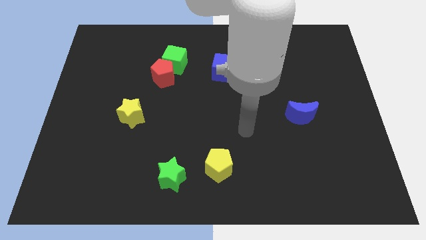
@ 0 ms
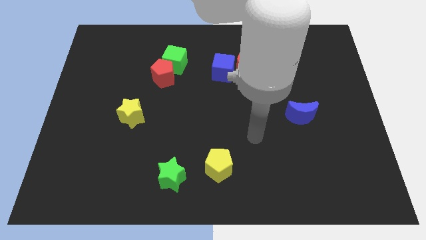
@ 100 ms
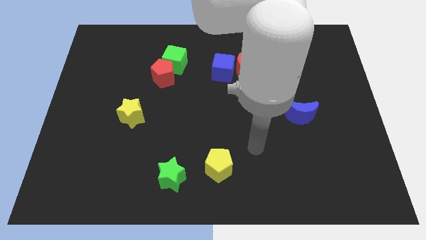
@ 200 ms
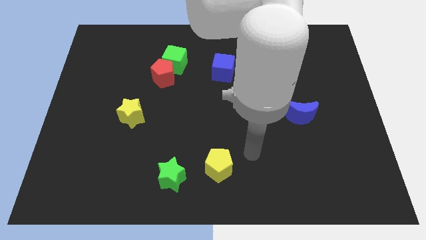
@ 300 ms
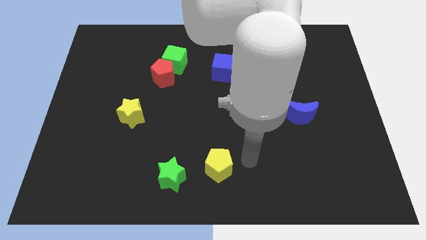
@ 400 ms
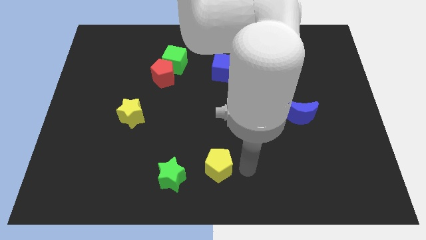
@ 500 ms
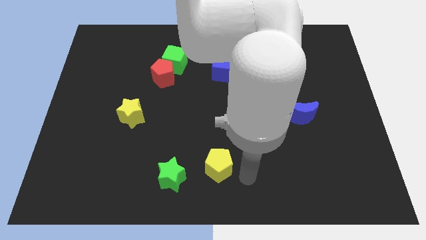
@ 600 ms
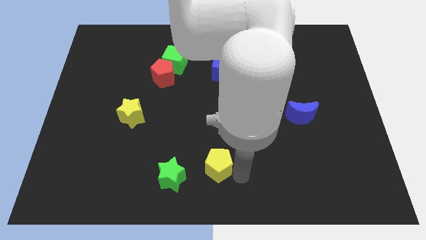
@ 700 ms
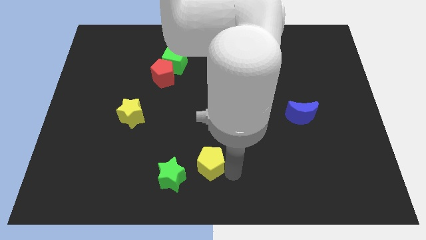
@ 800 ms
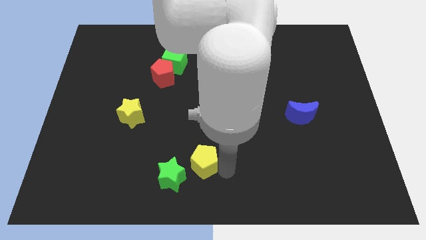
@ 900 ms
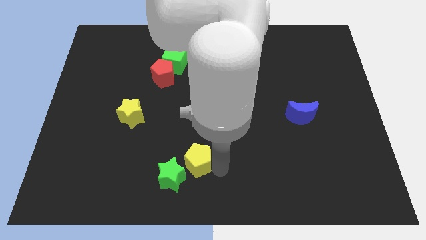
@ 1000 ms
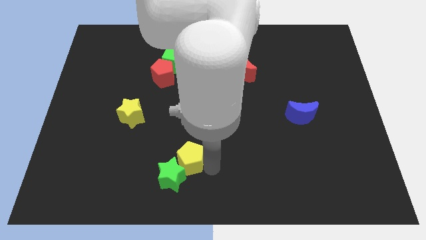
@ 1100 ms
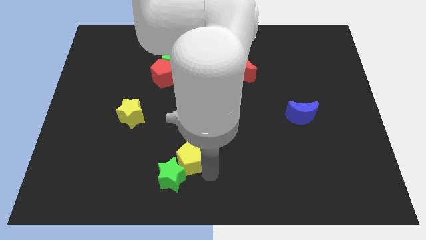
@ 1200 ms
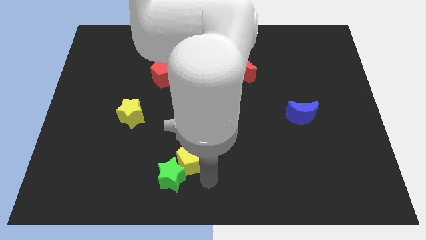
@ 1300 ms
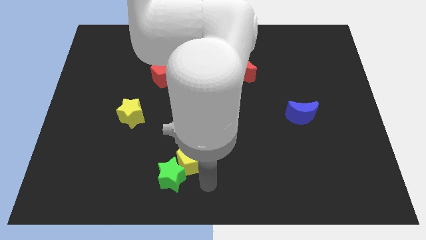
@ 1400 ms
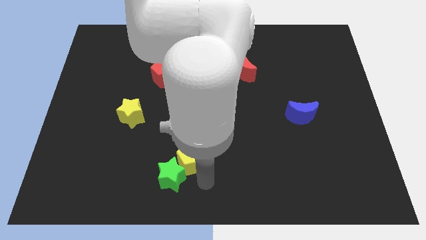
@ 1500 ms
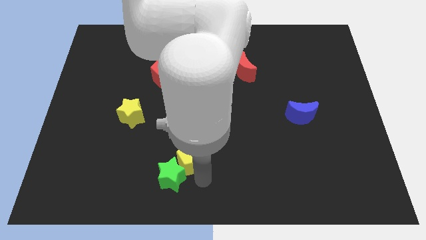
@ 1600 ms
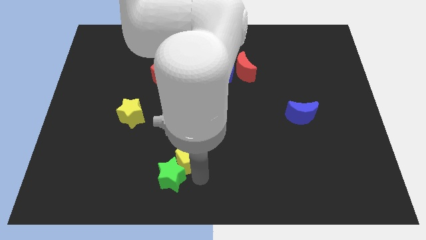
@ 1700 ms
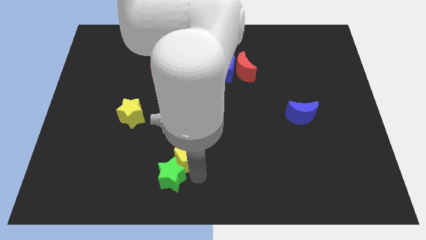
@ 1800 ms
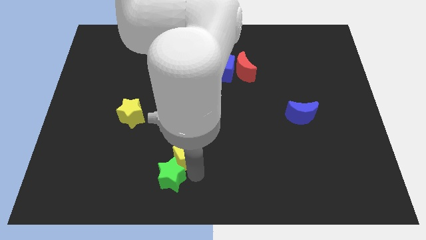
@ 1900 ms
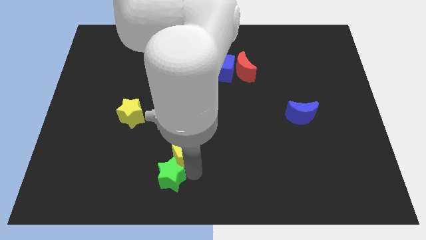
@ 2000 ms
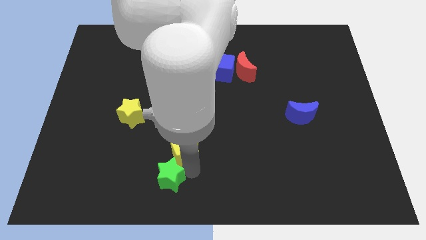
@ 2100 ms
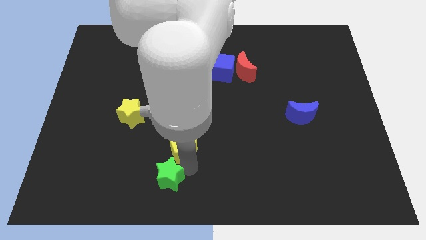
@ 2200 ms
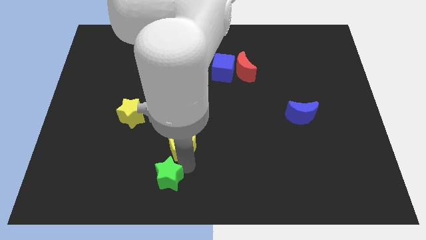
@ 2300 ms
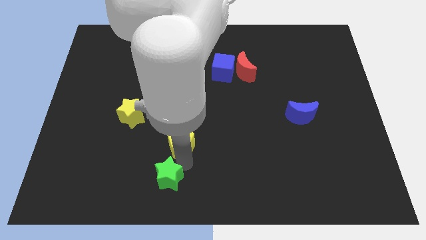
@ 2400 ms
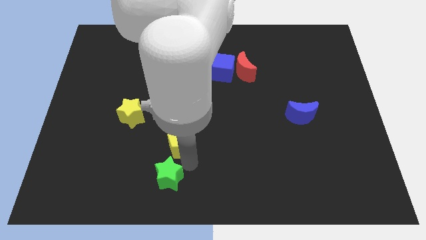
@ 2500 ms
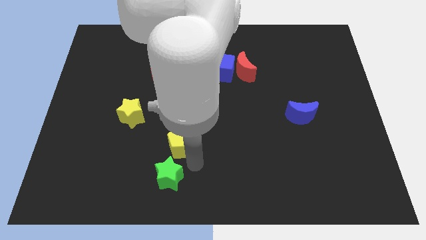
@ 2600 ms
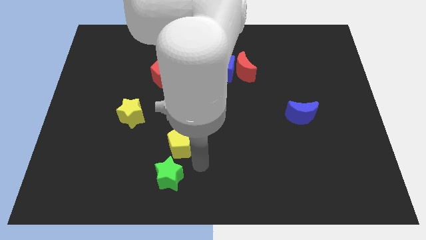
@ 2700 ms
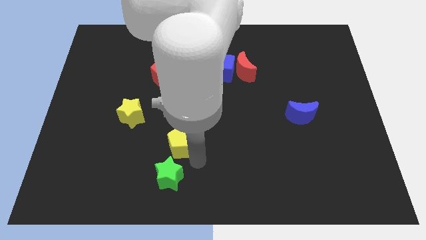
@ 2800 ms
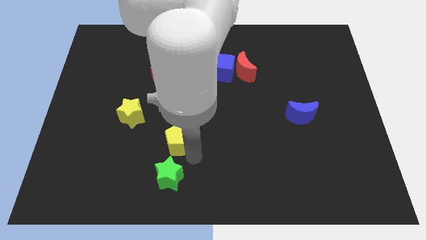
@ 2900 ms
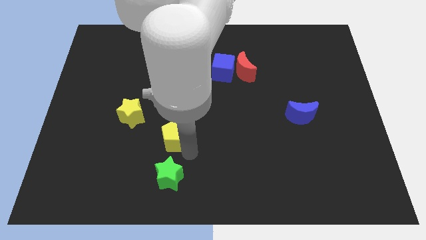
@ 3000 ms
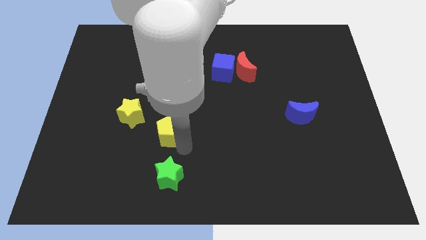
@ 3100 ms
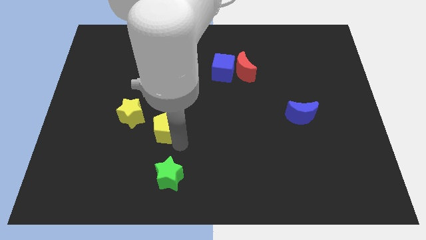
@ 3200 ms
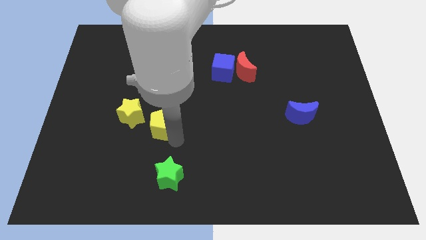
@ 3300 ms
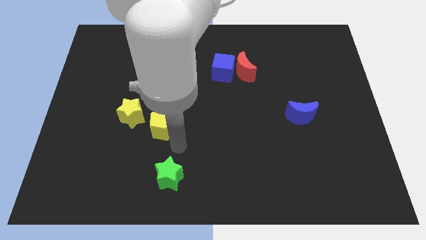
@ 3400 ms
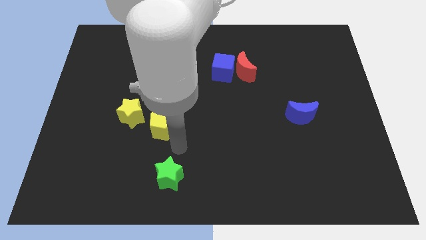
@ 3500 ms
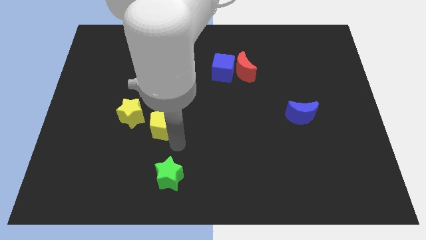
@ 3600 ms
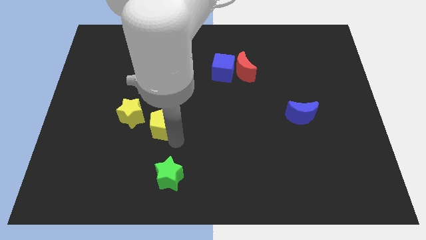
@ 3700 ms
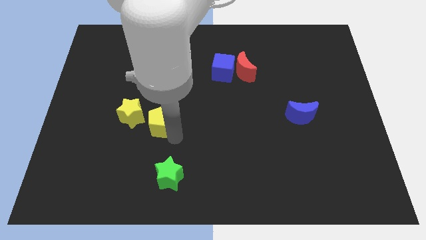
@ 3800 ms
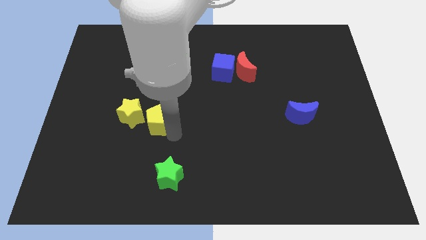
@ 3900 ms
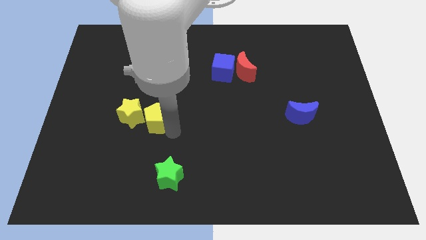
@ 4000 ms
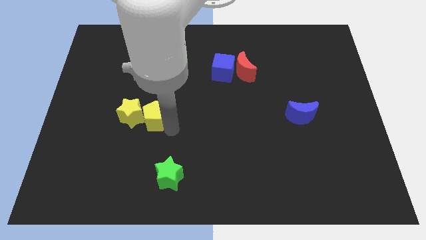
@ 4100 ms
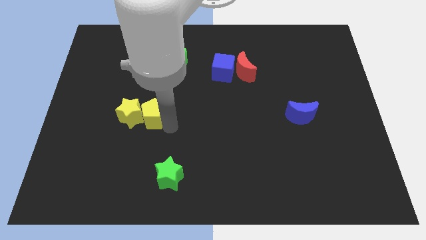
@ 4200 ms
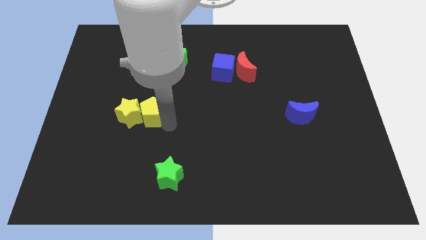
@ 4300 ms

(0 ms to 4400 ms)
push the yellow pentagon up and left diagonally

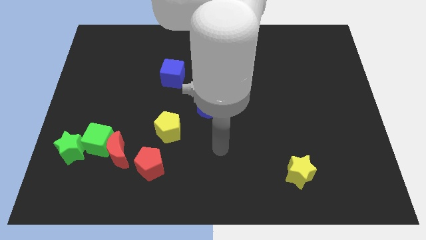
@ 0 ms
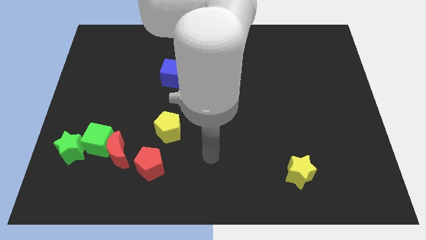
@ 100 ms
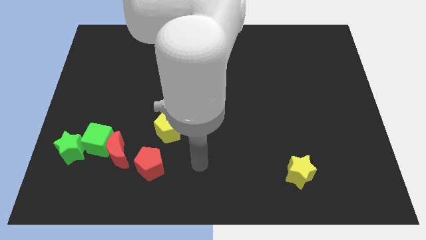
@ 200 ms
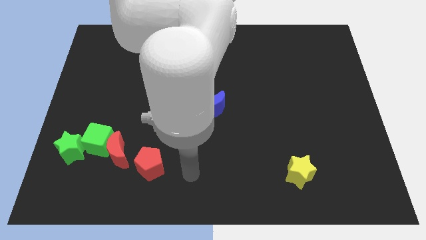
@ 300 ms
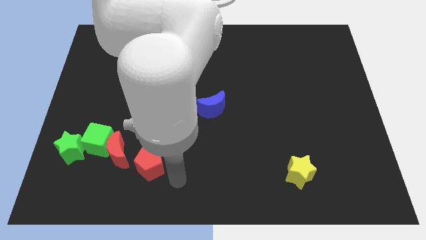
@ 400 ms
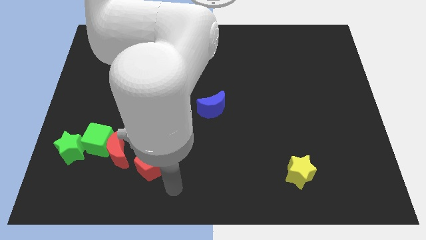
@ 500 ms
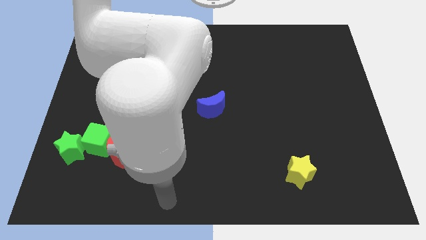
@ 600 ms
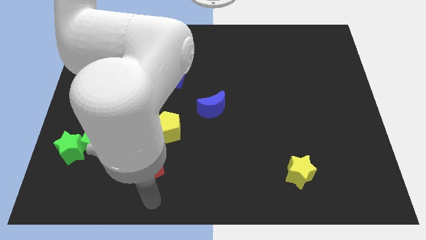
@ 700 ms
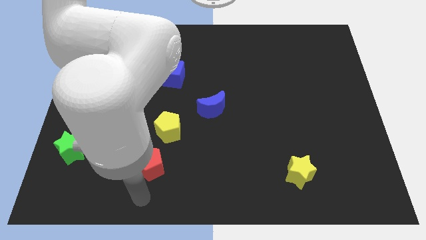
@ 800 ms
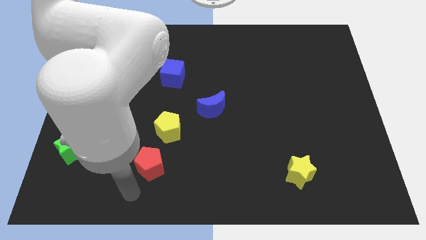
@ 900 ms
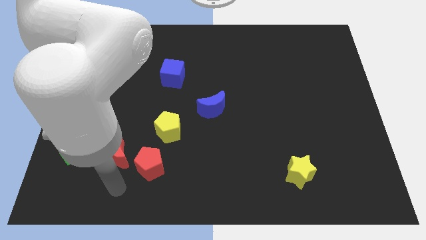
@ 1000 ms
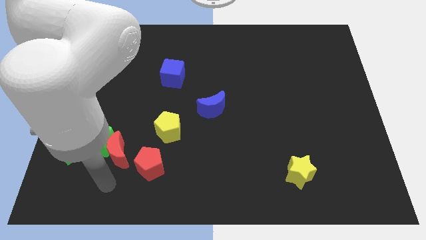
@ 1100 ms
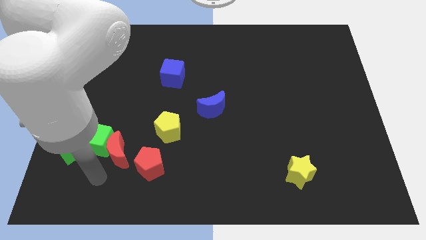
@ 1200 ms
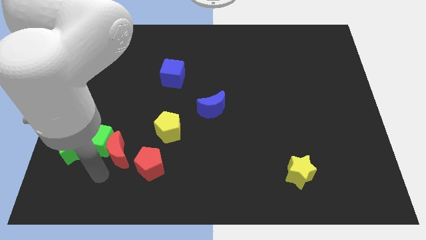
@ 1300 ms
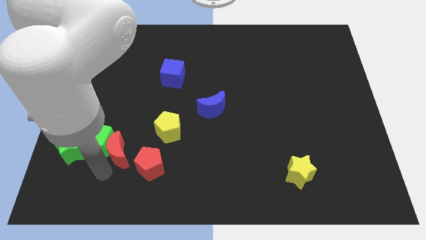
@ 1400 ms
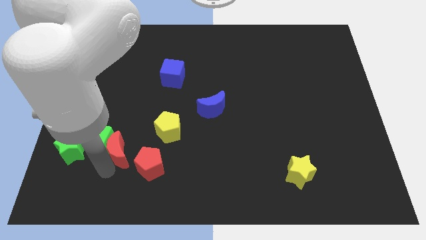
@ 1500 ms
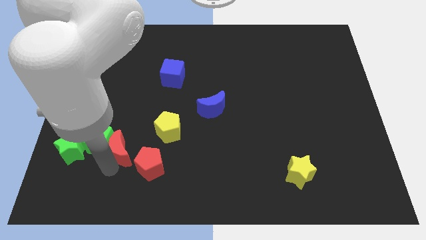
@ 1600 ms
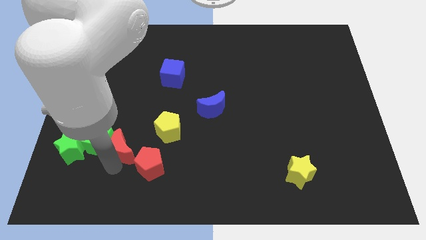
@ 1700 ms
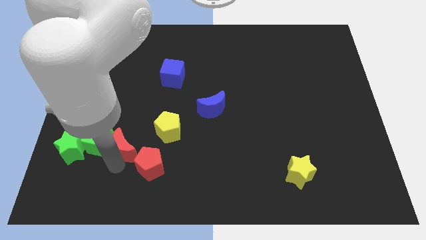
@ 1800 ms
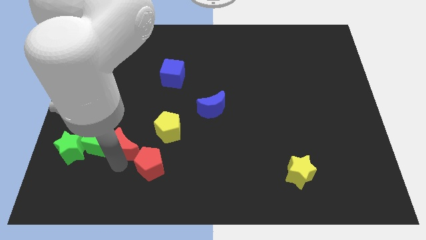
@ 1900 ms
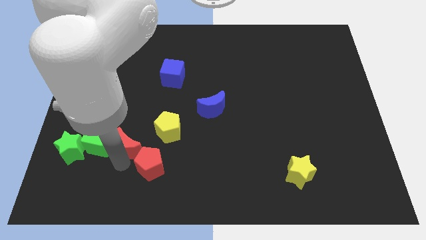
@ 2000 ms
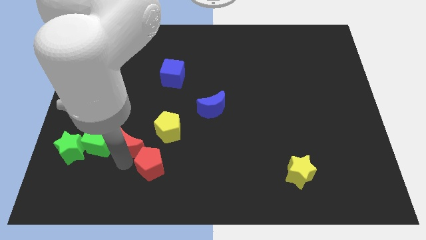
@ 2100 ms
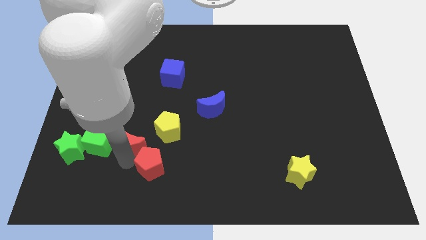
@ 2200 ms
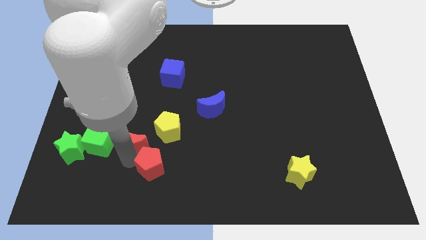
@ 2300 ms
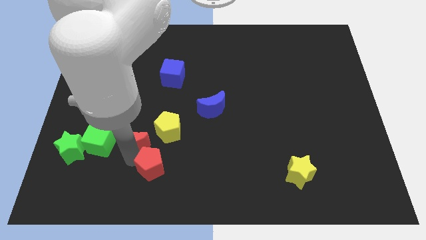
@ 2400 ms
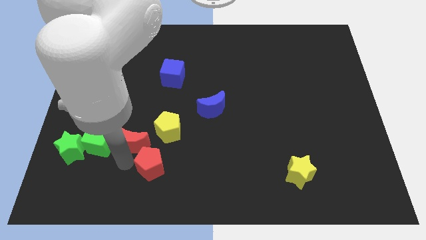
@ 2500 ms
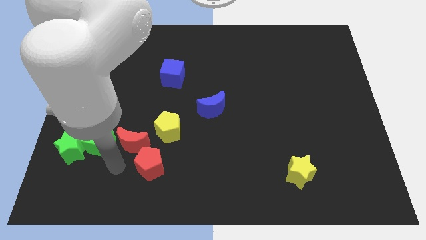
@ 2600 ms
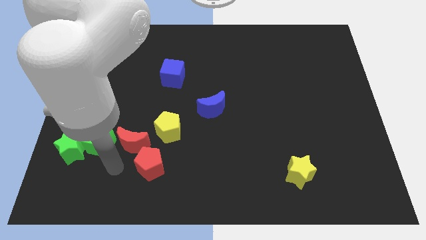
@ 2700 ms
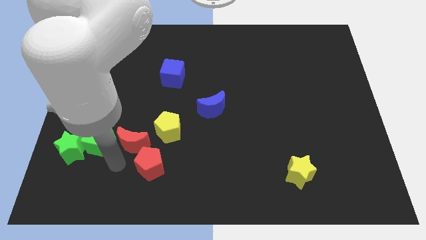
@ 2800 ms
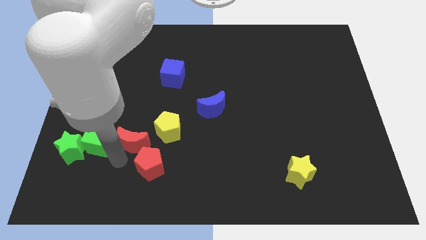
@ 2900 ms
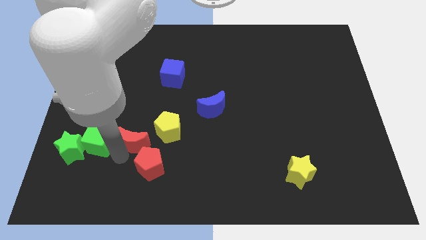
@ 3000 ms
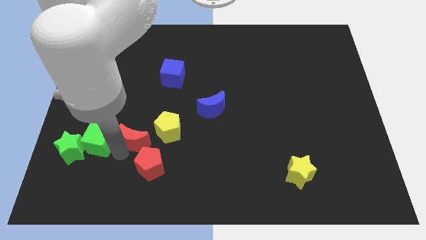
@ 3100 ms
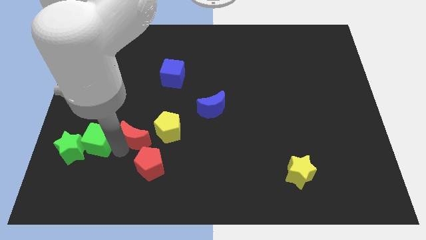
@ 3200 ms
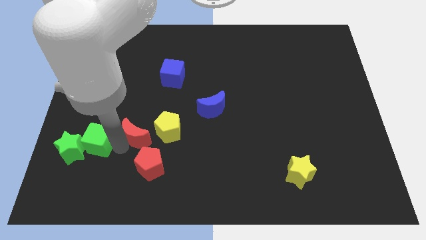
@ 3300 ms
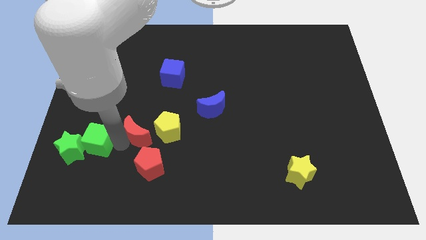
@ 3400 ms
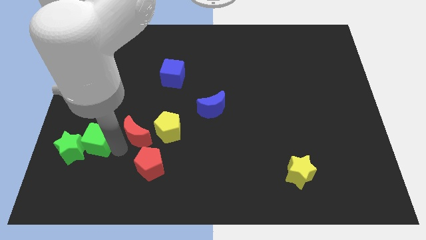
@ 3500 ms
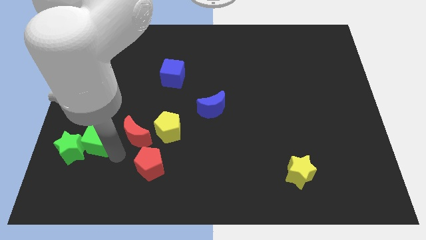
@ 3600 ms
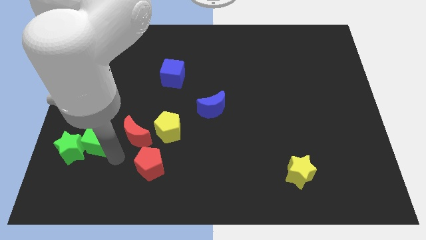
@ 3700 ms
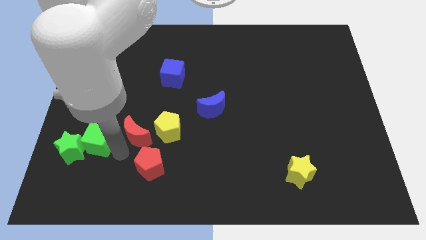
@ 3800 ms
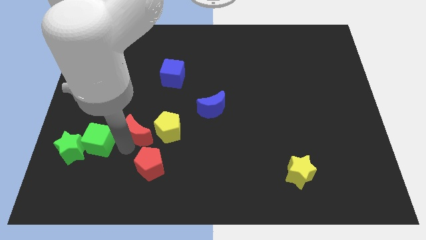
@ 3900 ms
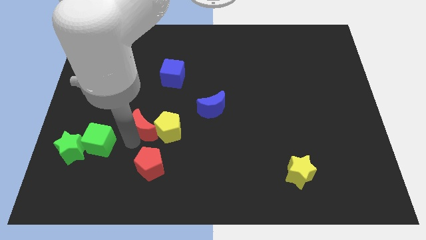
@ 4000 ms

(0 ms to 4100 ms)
slide the red moon upwards and then to the right a little bit

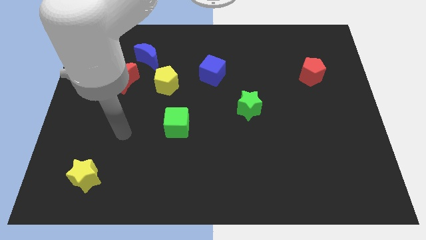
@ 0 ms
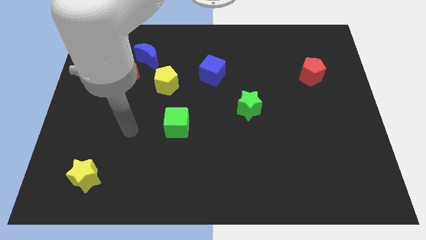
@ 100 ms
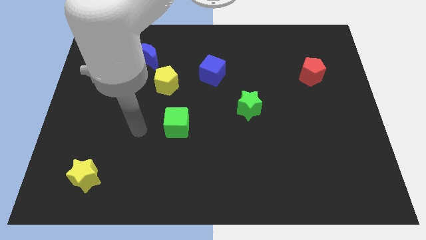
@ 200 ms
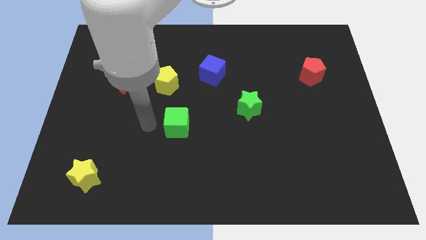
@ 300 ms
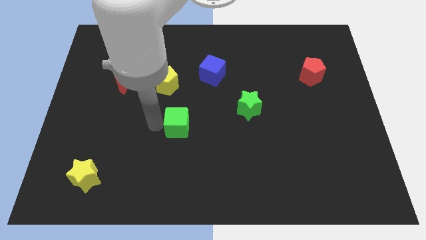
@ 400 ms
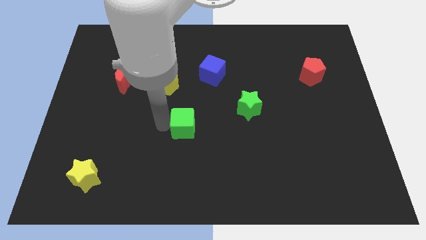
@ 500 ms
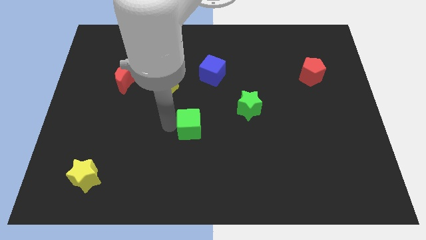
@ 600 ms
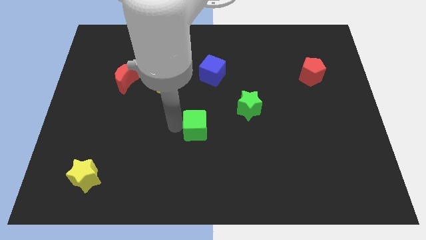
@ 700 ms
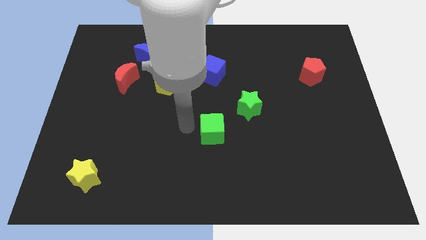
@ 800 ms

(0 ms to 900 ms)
slightly slide the green cube right
